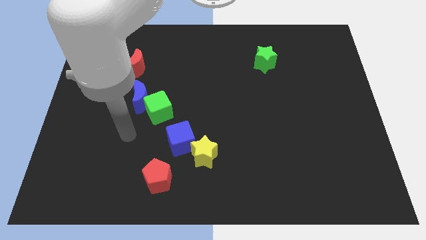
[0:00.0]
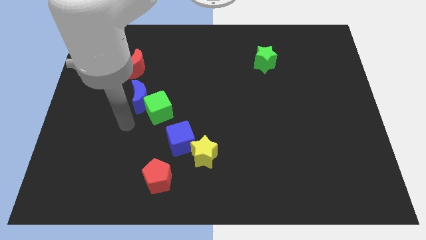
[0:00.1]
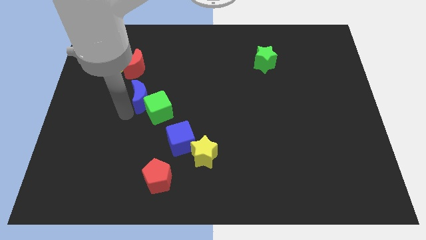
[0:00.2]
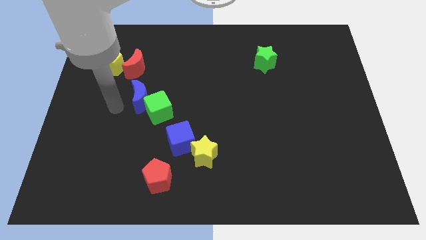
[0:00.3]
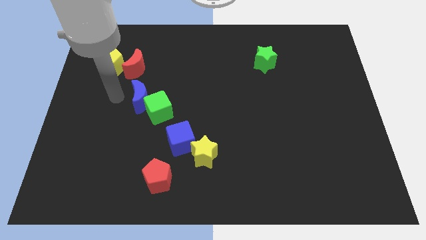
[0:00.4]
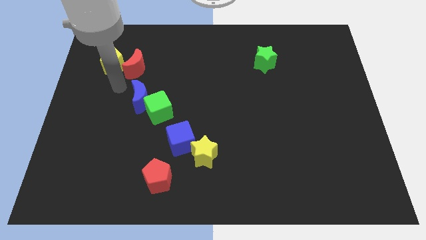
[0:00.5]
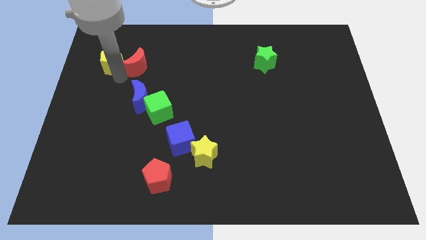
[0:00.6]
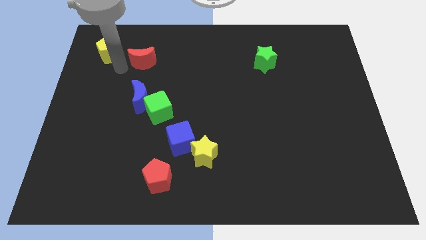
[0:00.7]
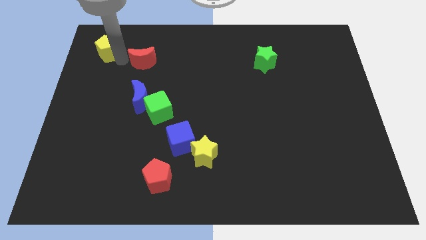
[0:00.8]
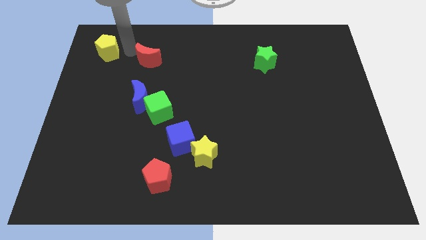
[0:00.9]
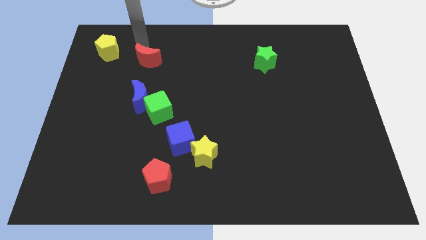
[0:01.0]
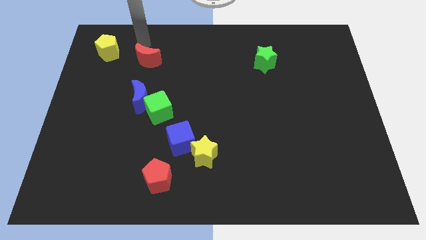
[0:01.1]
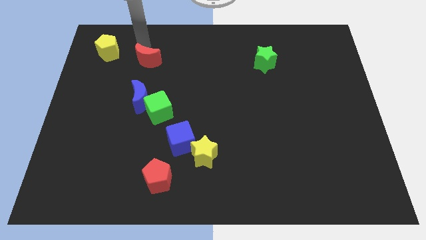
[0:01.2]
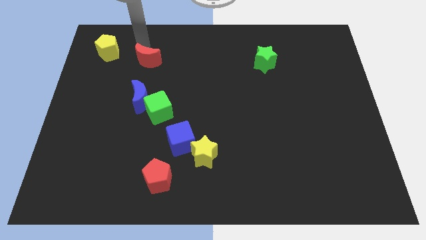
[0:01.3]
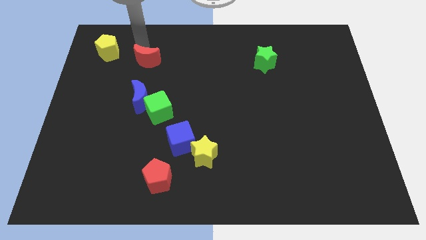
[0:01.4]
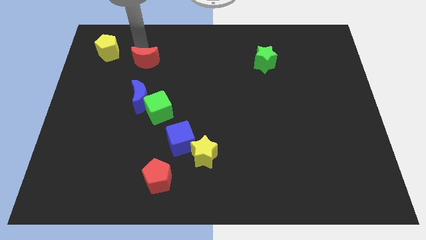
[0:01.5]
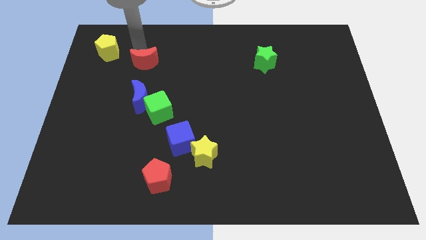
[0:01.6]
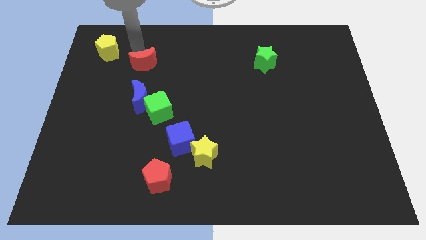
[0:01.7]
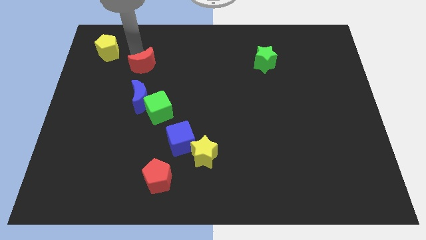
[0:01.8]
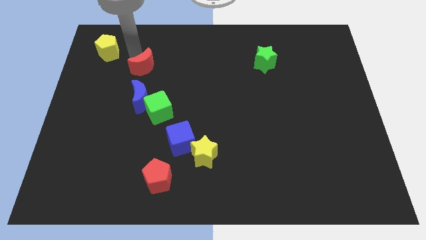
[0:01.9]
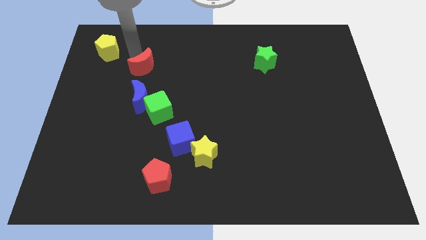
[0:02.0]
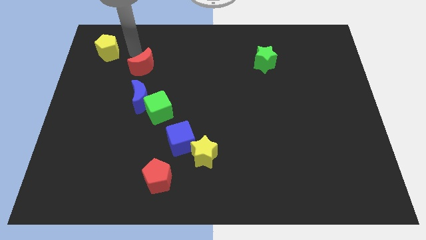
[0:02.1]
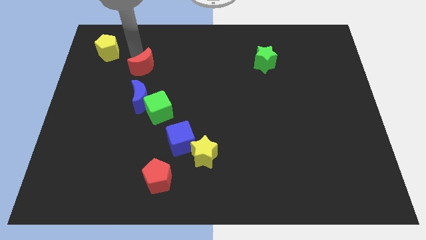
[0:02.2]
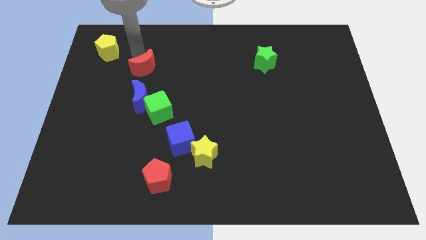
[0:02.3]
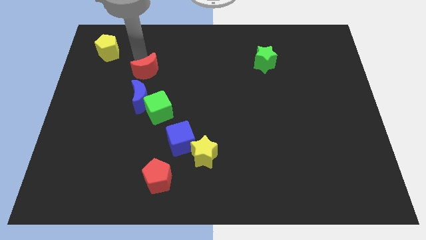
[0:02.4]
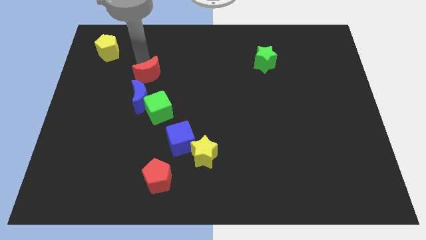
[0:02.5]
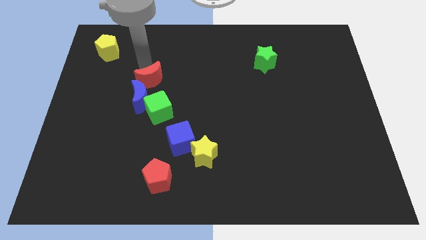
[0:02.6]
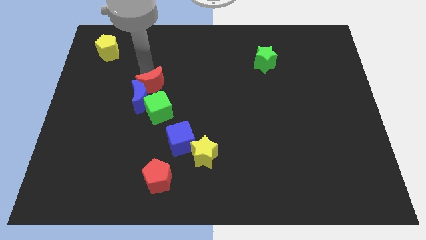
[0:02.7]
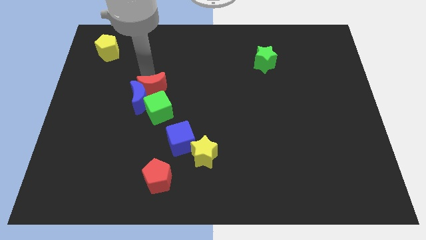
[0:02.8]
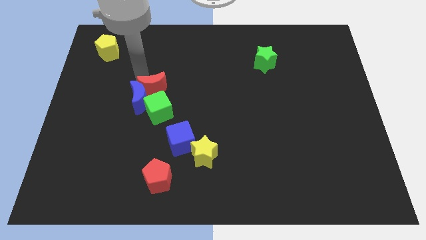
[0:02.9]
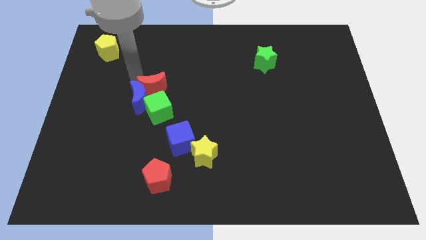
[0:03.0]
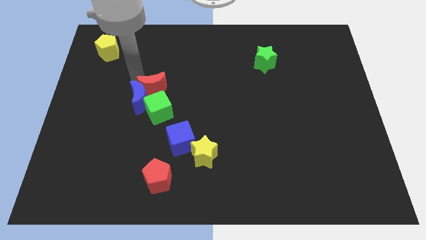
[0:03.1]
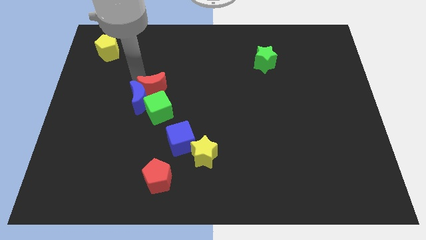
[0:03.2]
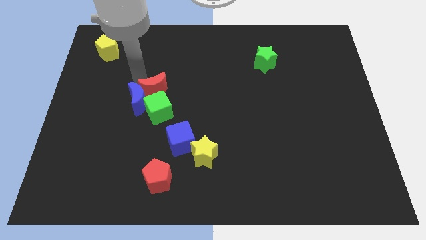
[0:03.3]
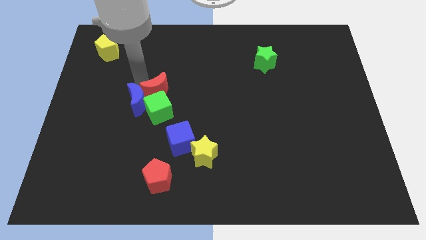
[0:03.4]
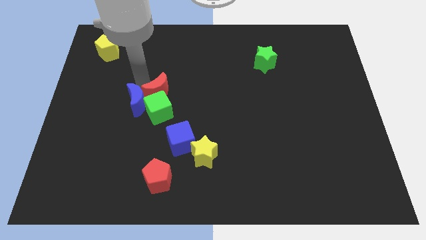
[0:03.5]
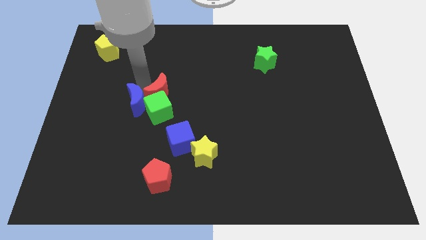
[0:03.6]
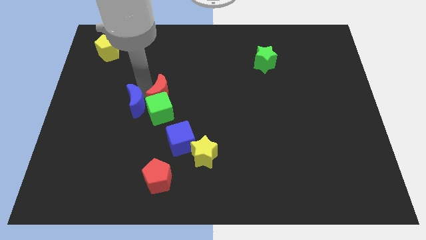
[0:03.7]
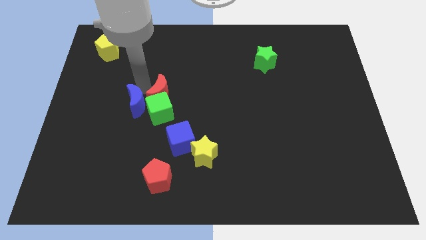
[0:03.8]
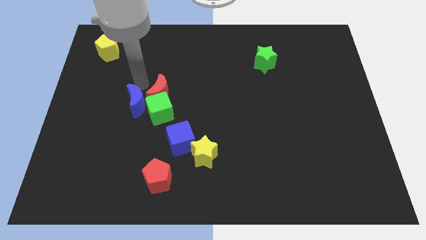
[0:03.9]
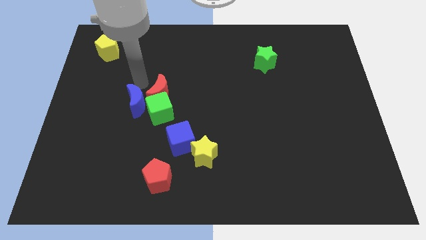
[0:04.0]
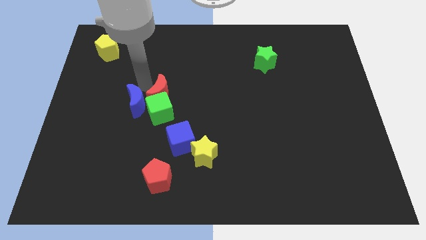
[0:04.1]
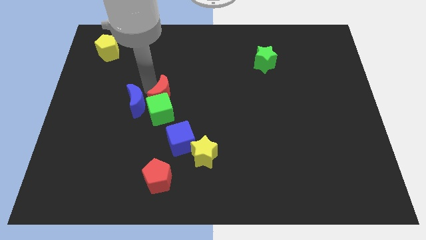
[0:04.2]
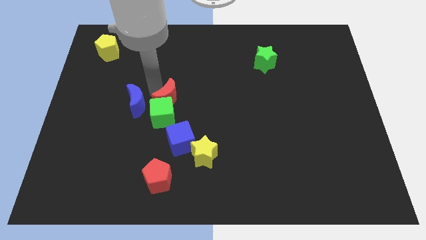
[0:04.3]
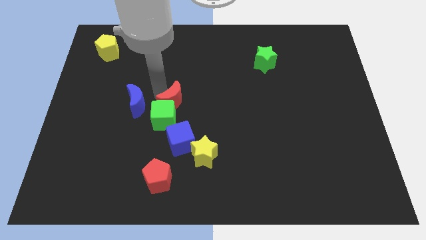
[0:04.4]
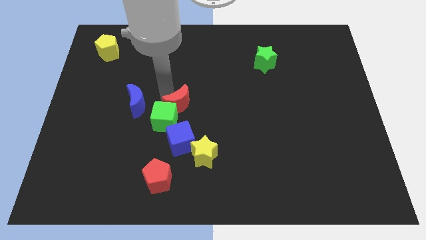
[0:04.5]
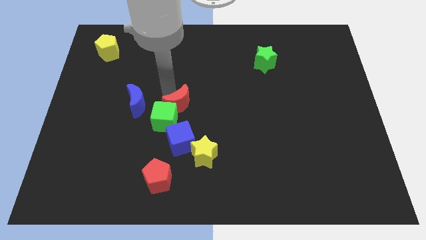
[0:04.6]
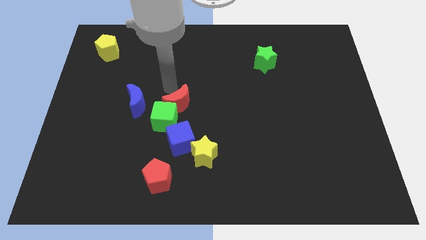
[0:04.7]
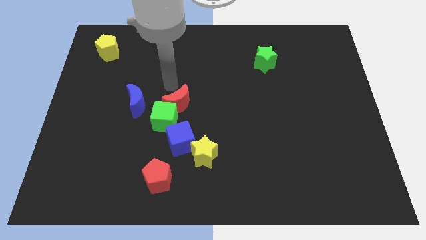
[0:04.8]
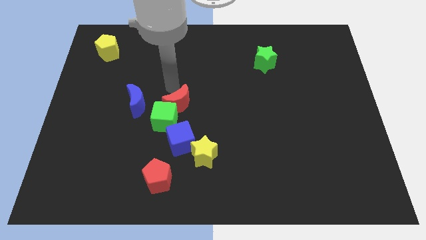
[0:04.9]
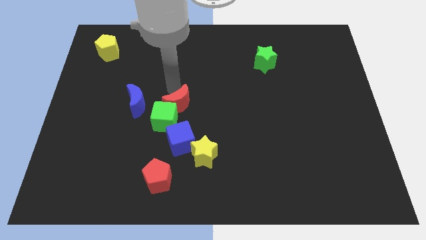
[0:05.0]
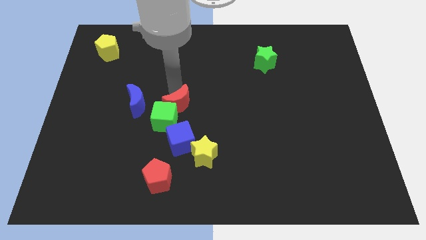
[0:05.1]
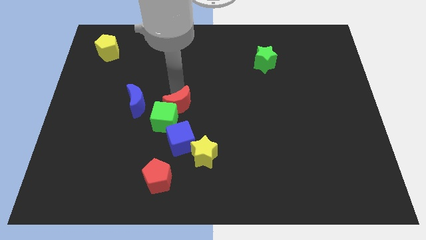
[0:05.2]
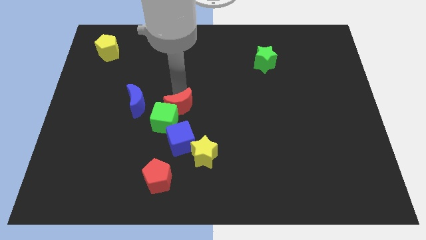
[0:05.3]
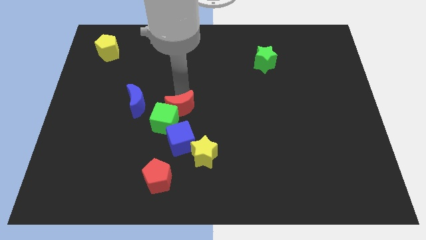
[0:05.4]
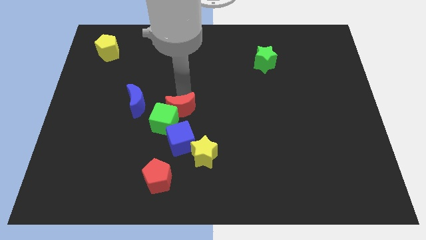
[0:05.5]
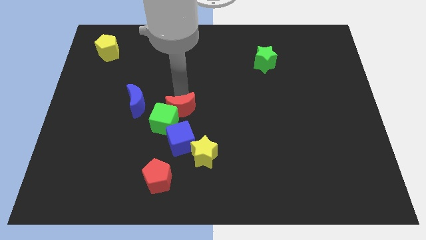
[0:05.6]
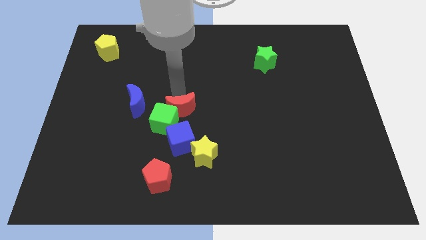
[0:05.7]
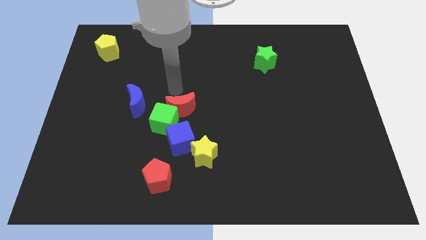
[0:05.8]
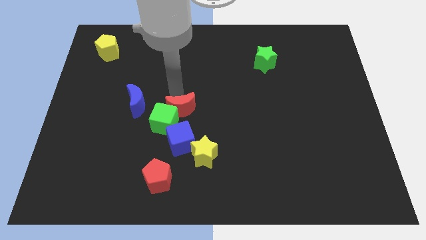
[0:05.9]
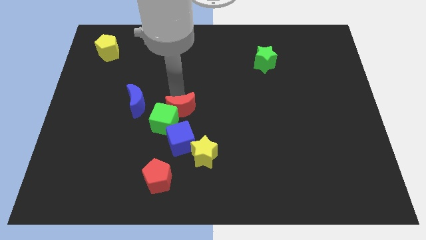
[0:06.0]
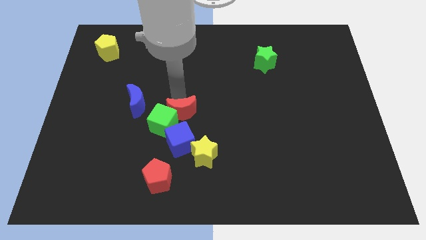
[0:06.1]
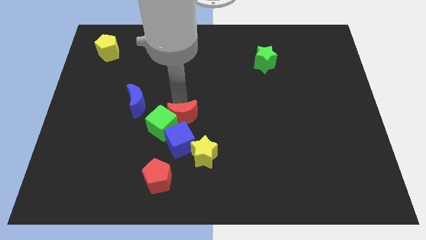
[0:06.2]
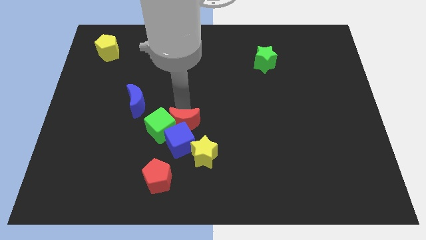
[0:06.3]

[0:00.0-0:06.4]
move the red moon to the blue cube

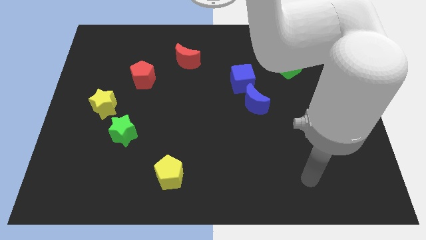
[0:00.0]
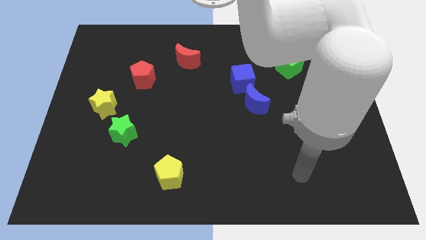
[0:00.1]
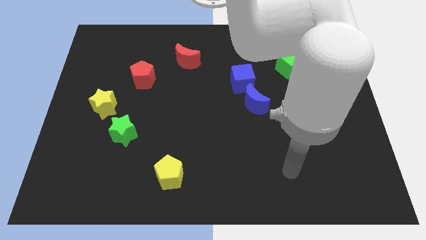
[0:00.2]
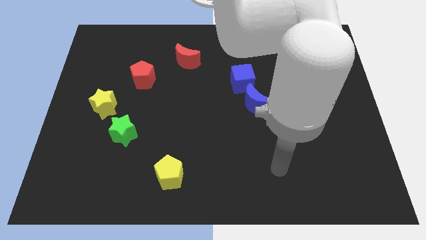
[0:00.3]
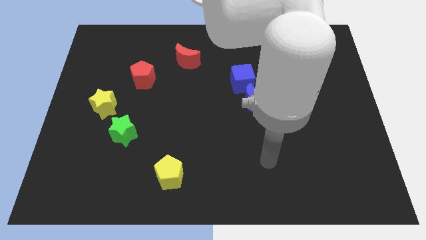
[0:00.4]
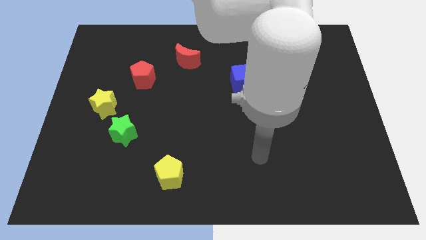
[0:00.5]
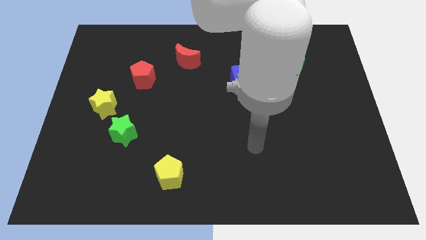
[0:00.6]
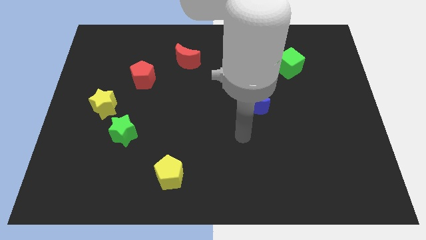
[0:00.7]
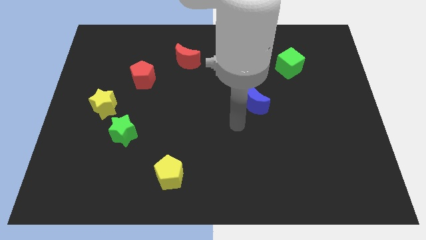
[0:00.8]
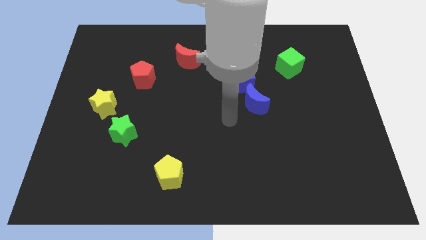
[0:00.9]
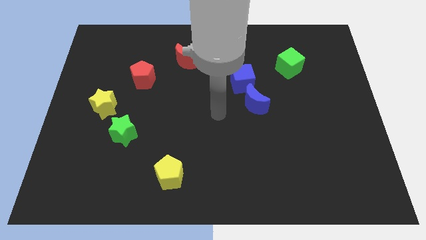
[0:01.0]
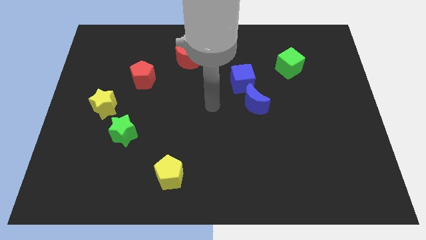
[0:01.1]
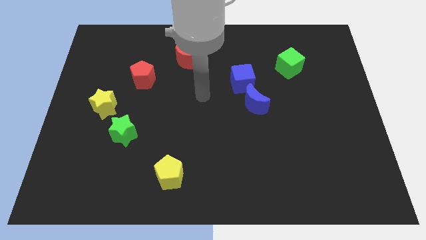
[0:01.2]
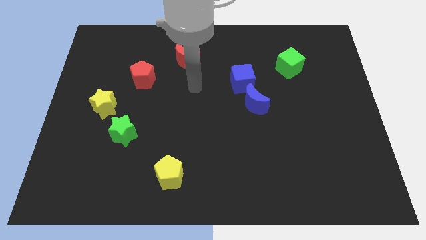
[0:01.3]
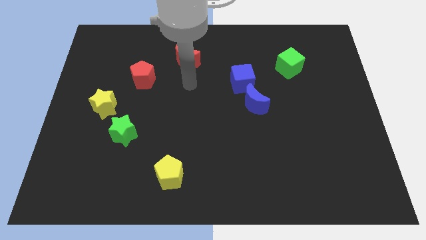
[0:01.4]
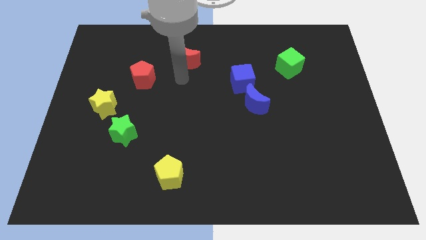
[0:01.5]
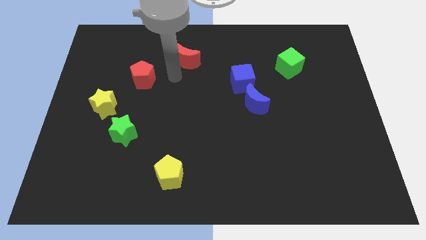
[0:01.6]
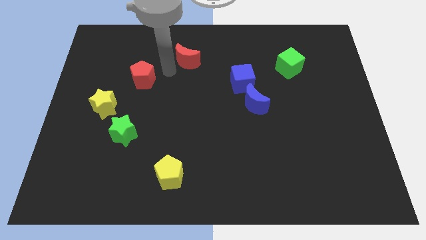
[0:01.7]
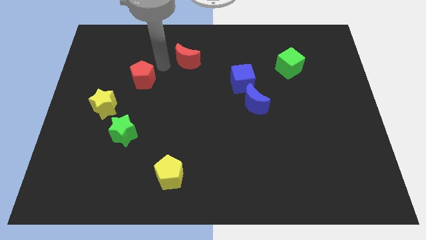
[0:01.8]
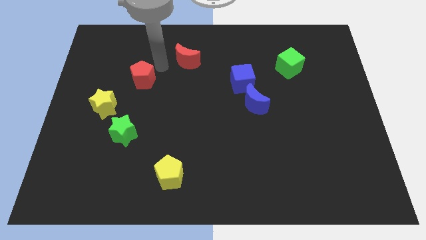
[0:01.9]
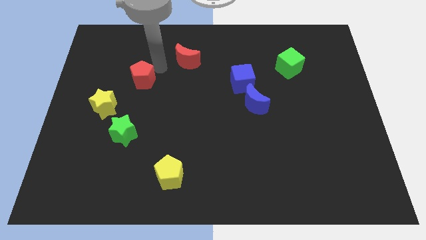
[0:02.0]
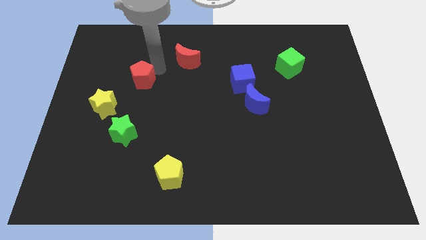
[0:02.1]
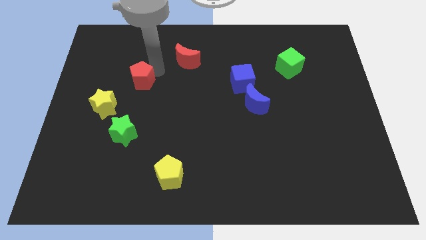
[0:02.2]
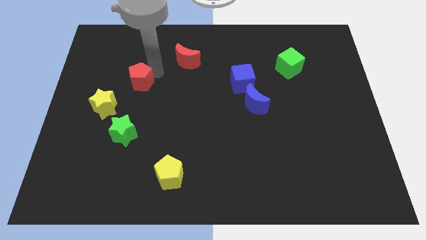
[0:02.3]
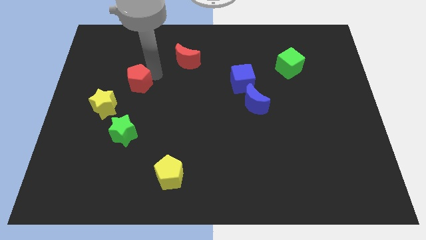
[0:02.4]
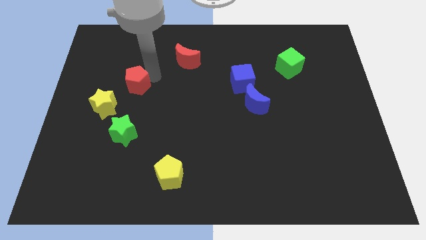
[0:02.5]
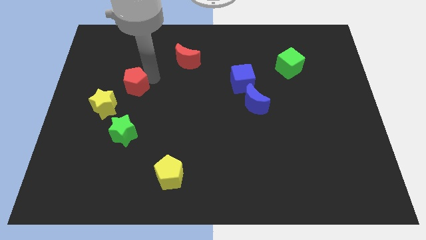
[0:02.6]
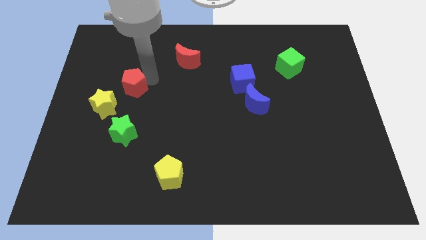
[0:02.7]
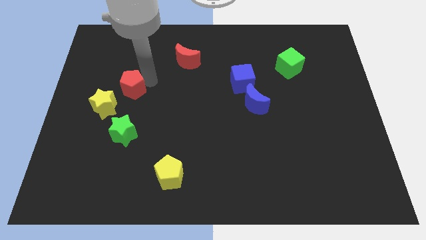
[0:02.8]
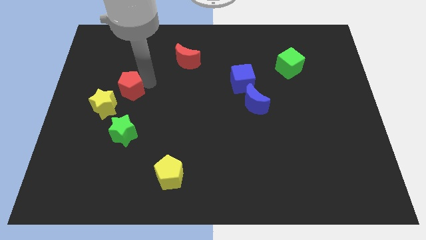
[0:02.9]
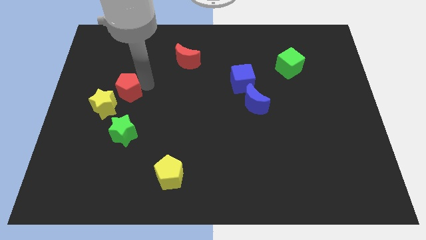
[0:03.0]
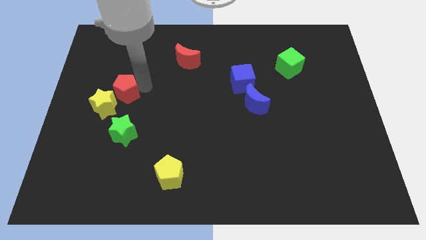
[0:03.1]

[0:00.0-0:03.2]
put the red pentagon towards the yellow star
